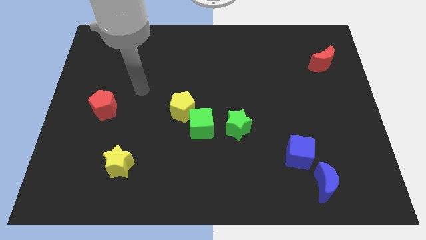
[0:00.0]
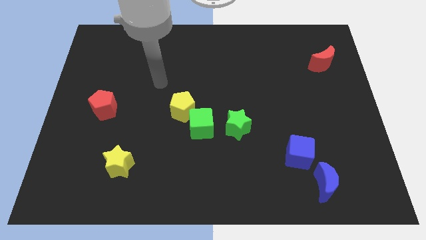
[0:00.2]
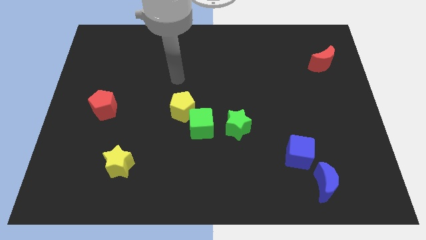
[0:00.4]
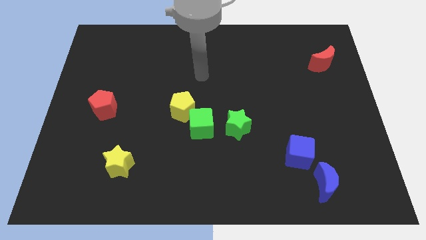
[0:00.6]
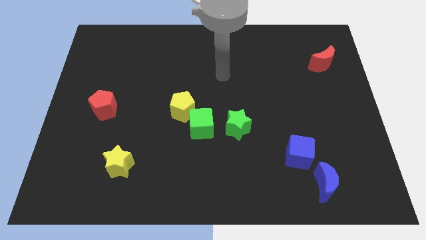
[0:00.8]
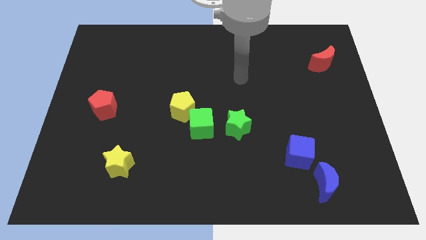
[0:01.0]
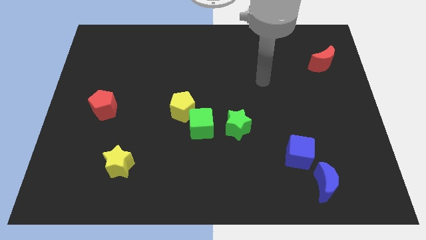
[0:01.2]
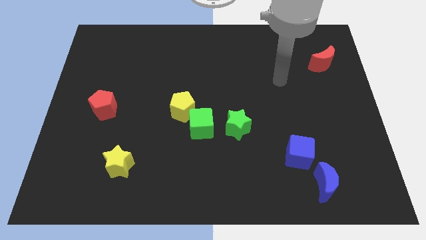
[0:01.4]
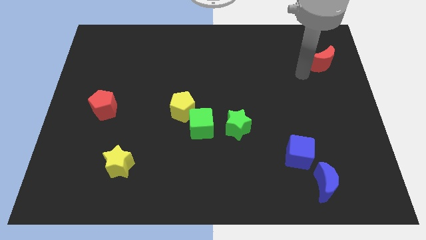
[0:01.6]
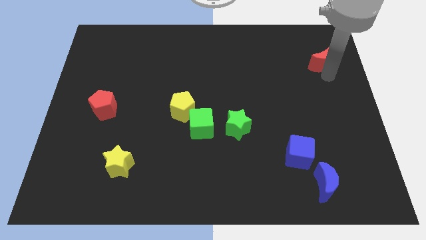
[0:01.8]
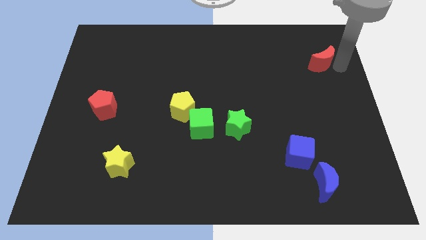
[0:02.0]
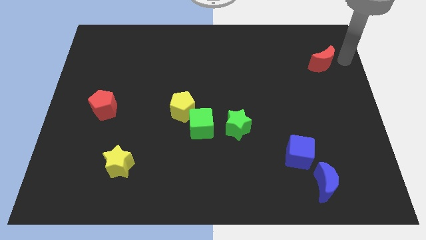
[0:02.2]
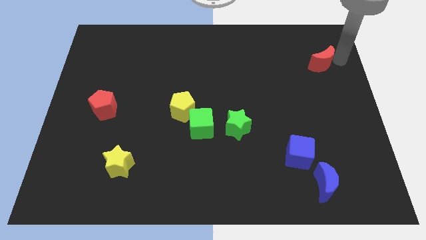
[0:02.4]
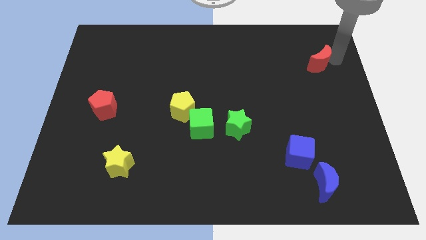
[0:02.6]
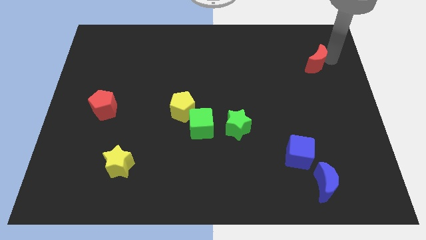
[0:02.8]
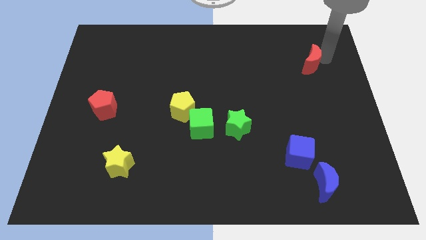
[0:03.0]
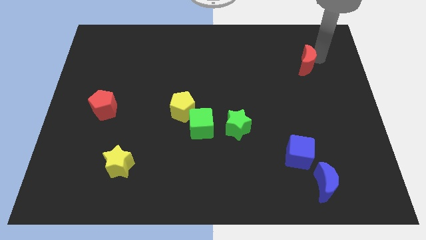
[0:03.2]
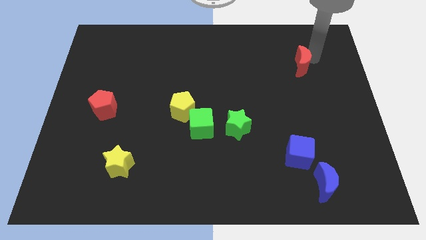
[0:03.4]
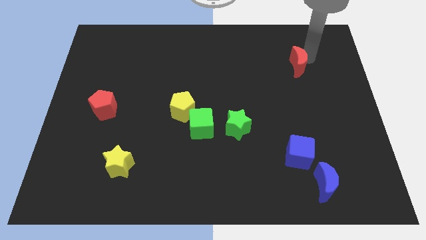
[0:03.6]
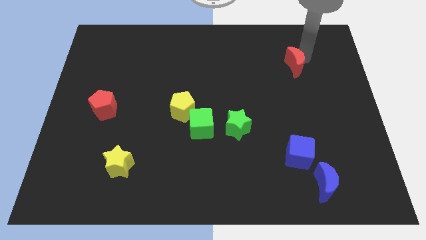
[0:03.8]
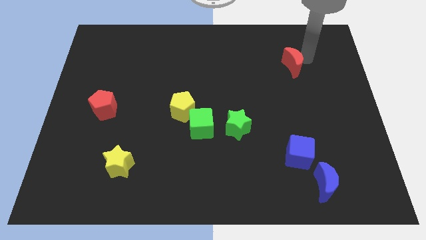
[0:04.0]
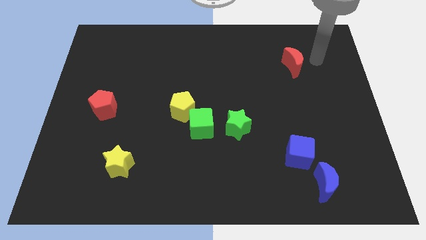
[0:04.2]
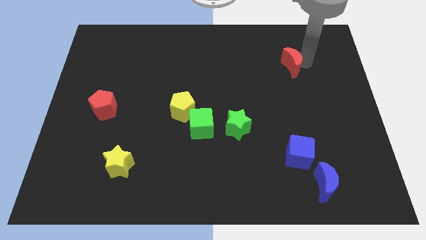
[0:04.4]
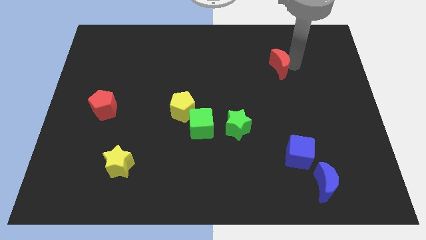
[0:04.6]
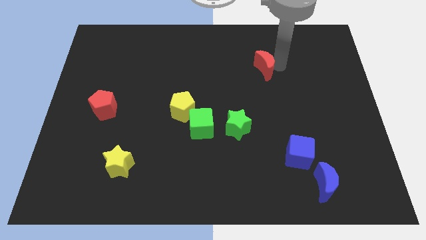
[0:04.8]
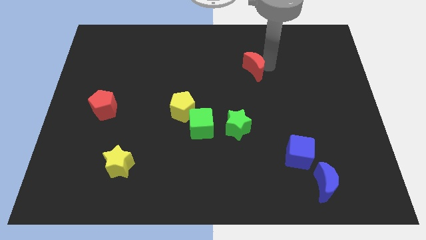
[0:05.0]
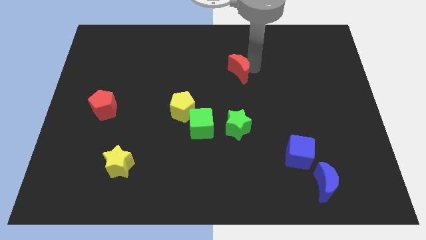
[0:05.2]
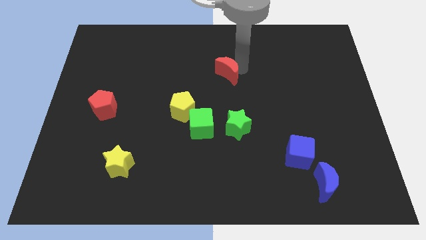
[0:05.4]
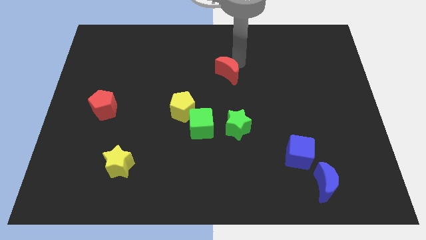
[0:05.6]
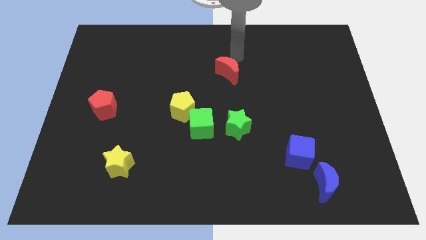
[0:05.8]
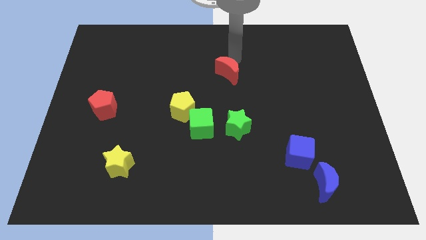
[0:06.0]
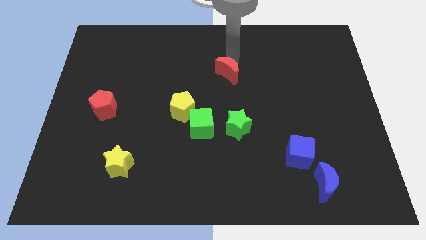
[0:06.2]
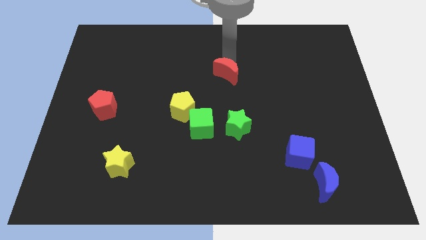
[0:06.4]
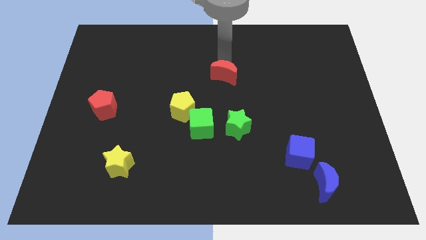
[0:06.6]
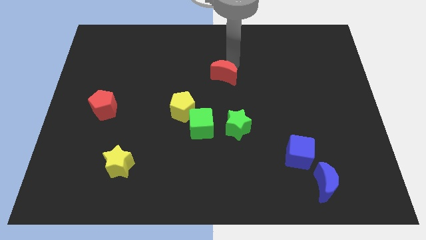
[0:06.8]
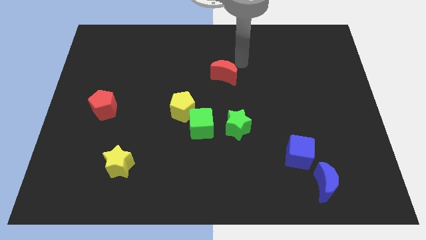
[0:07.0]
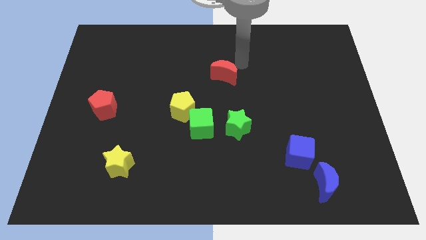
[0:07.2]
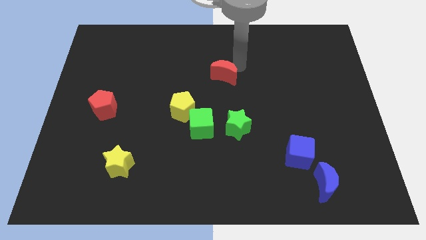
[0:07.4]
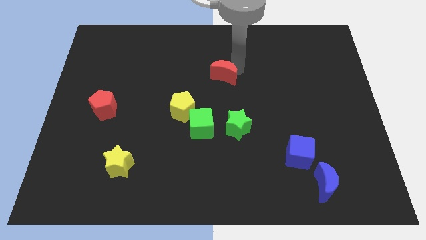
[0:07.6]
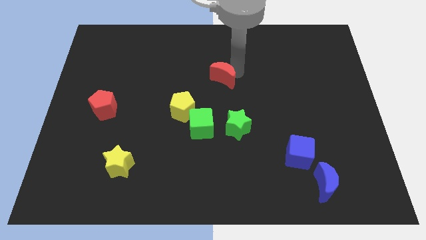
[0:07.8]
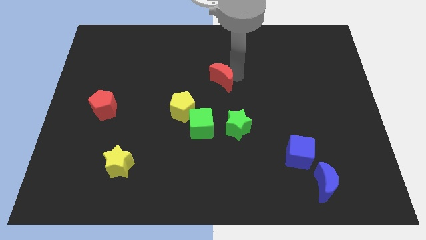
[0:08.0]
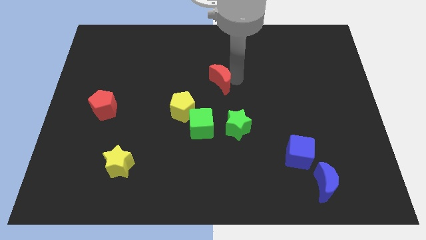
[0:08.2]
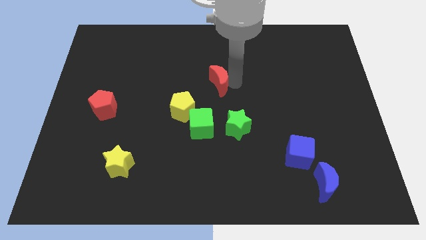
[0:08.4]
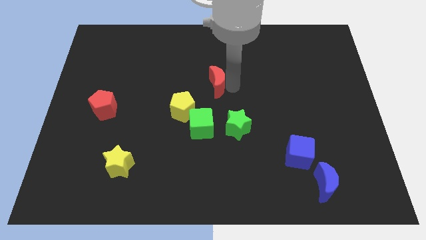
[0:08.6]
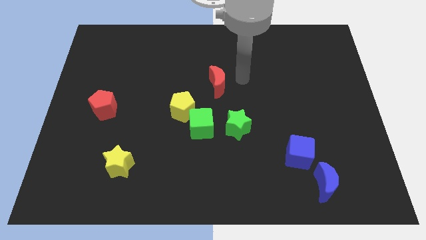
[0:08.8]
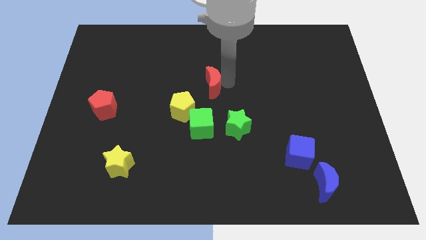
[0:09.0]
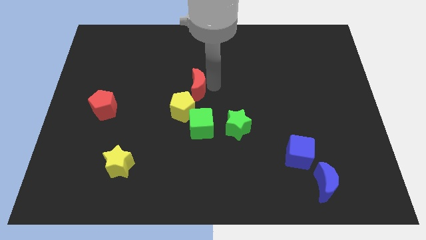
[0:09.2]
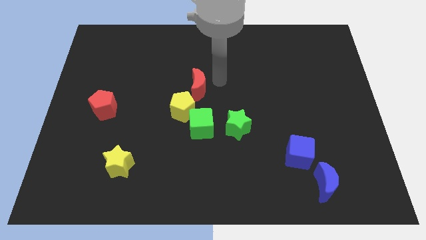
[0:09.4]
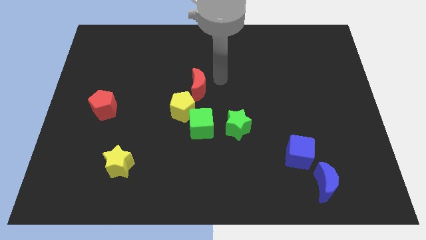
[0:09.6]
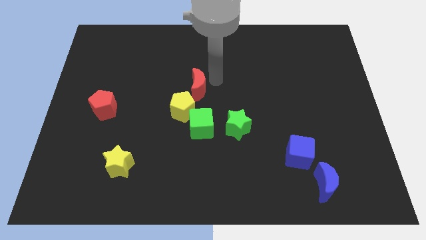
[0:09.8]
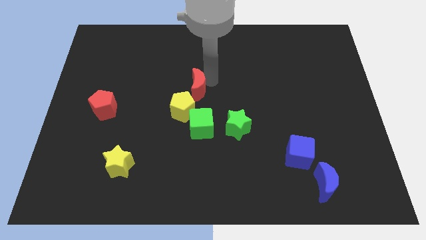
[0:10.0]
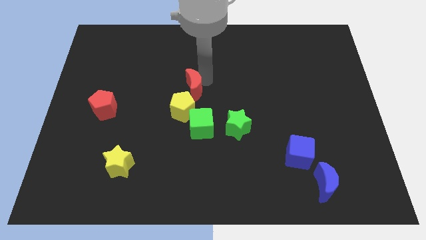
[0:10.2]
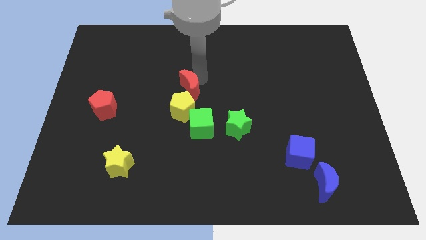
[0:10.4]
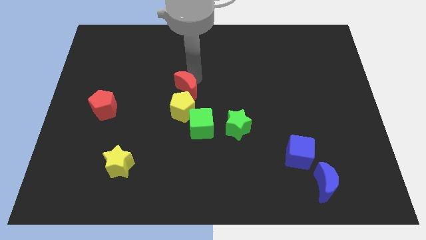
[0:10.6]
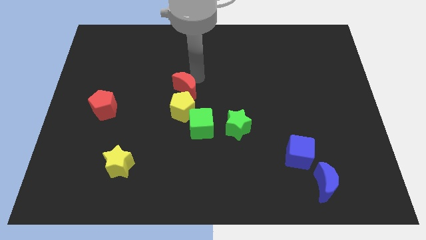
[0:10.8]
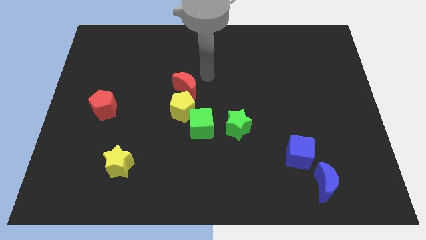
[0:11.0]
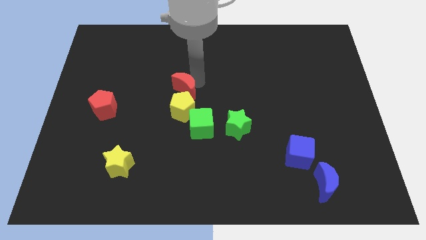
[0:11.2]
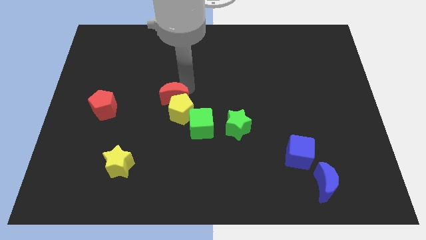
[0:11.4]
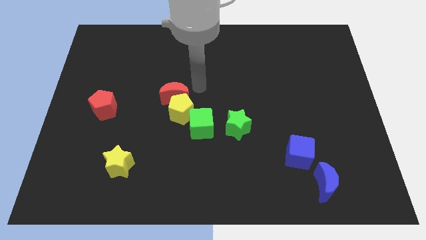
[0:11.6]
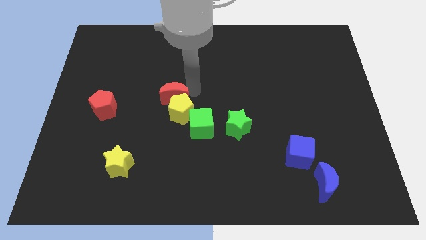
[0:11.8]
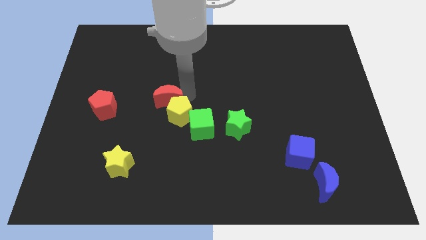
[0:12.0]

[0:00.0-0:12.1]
put the red moon just left of the yellow pentagon

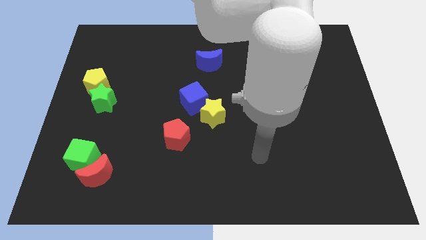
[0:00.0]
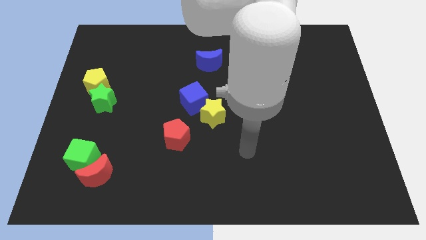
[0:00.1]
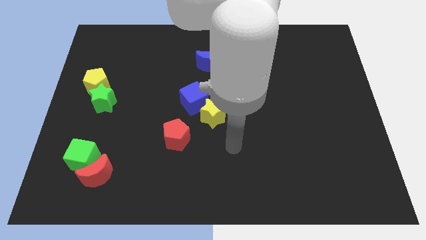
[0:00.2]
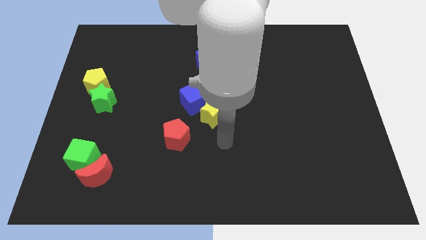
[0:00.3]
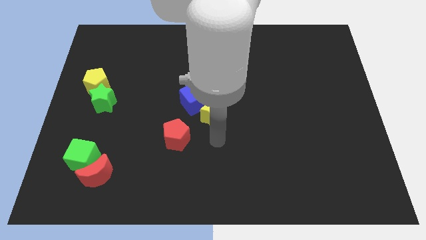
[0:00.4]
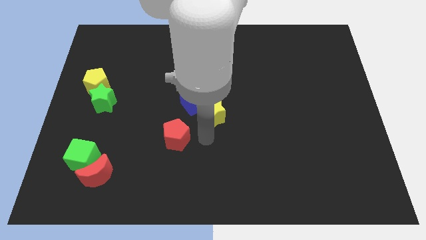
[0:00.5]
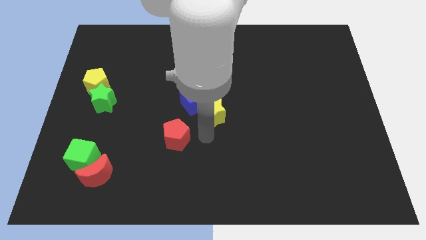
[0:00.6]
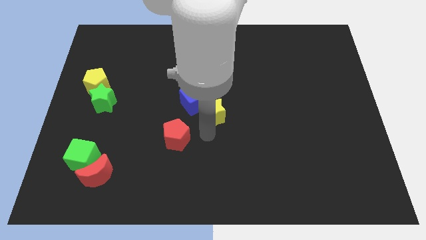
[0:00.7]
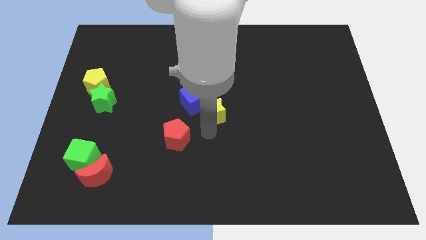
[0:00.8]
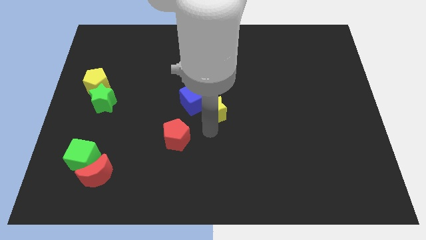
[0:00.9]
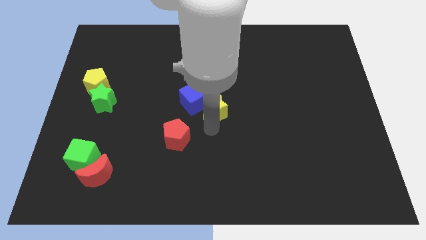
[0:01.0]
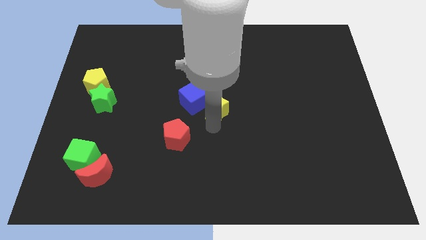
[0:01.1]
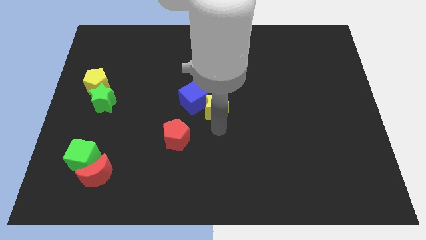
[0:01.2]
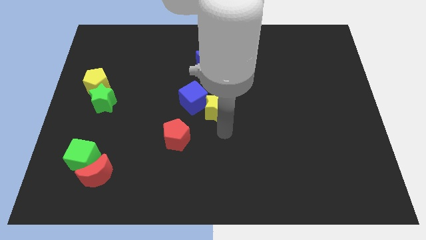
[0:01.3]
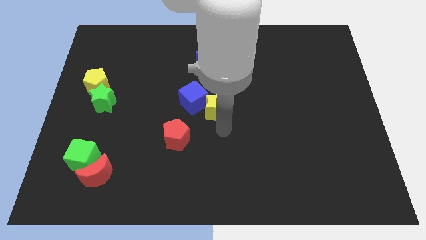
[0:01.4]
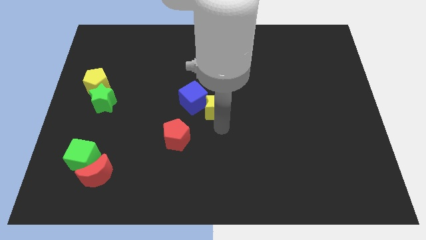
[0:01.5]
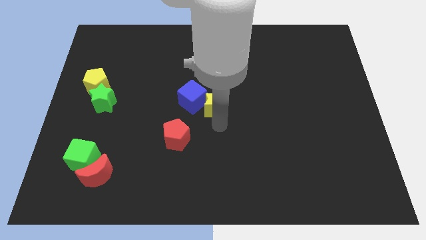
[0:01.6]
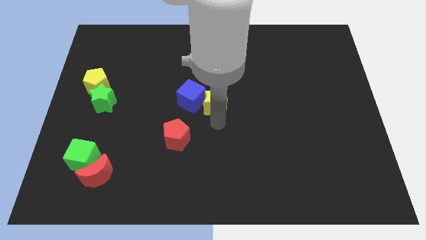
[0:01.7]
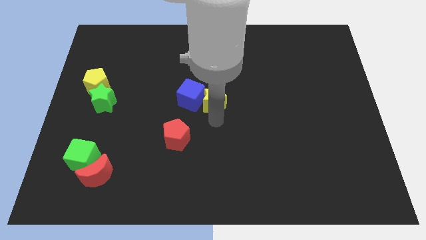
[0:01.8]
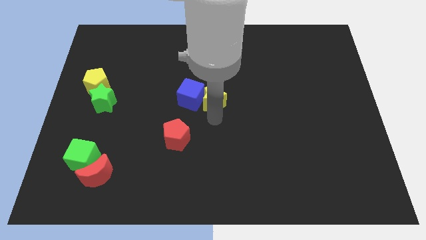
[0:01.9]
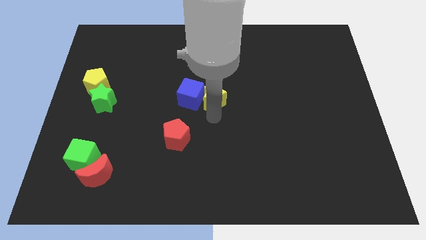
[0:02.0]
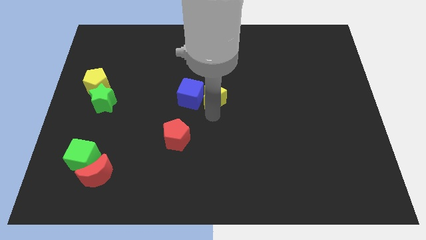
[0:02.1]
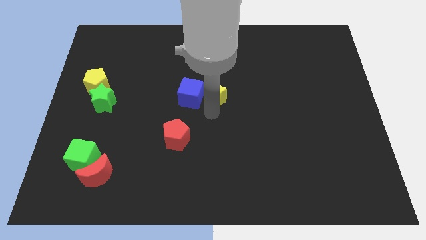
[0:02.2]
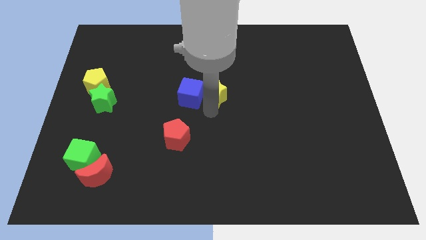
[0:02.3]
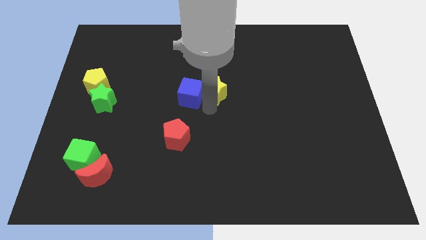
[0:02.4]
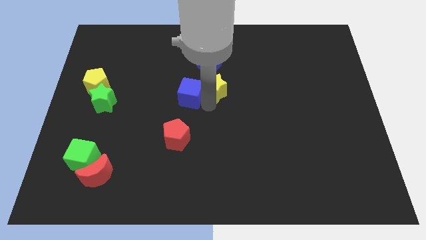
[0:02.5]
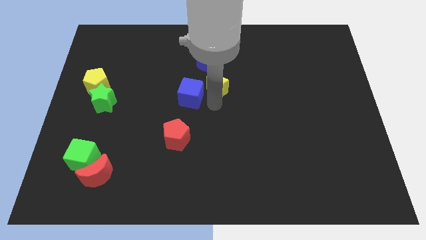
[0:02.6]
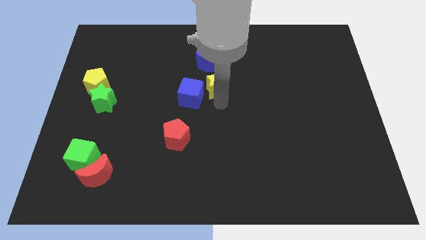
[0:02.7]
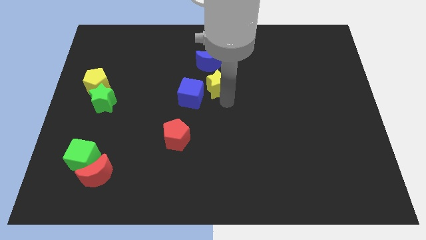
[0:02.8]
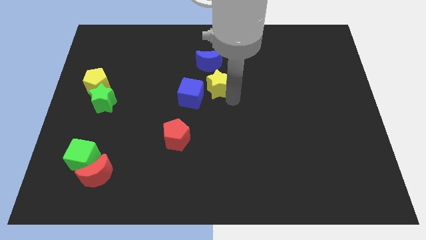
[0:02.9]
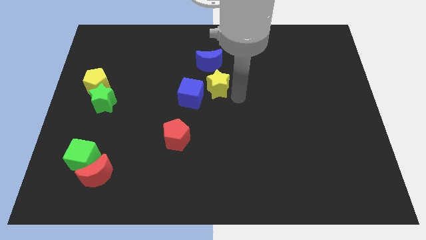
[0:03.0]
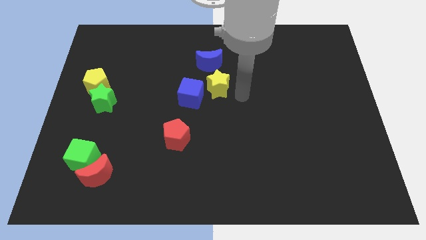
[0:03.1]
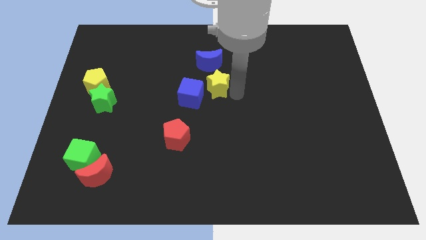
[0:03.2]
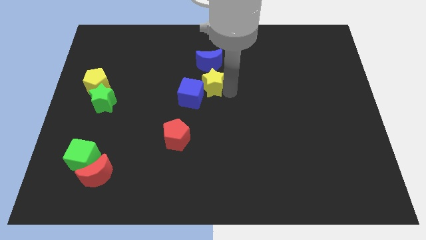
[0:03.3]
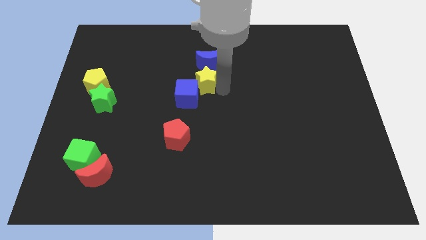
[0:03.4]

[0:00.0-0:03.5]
push the yellow star to the bottom left of the blue moon
